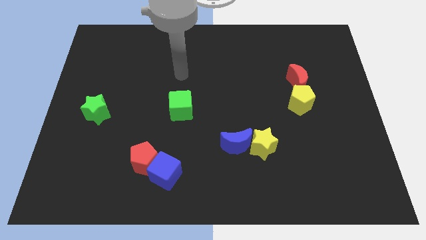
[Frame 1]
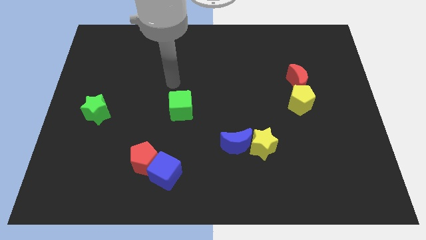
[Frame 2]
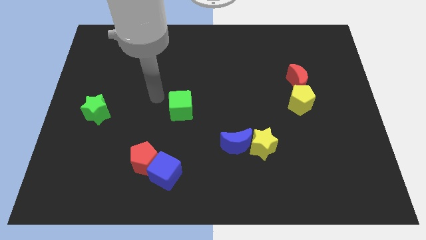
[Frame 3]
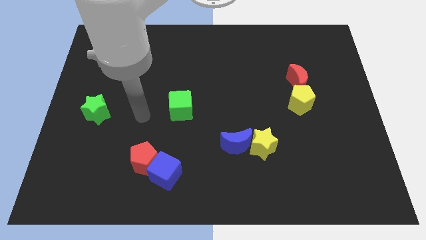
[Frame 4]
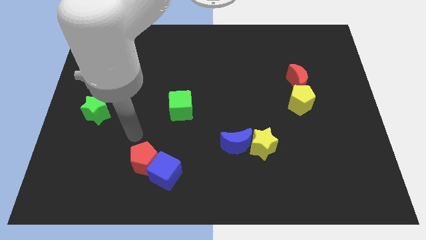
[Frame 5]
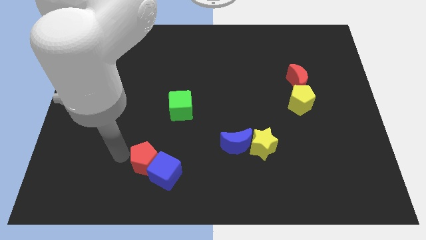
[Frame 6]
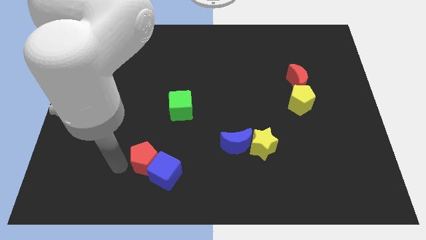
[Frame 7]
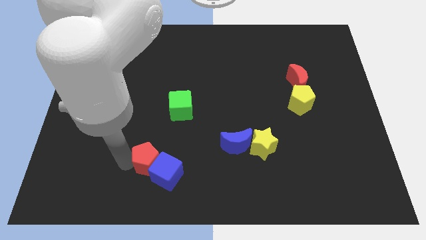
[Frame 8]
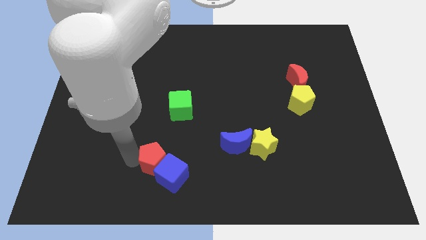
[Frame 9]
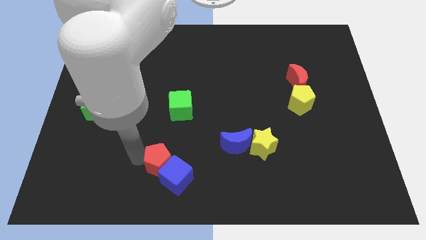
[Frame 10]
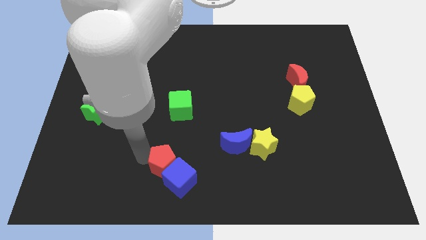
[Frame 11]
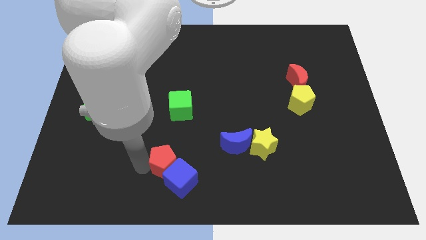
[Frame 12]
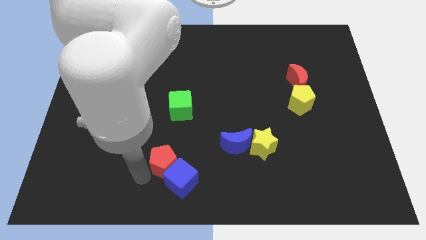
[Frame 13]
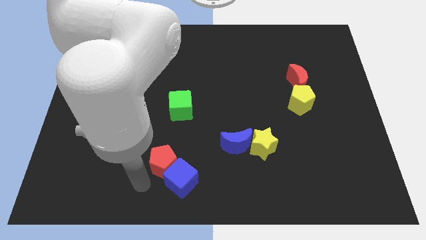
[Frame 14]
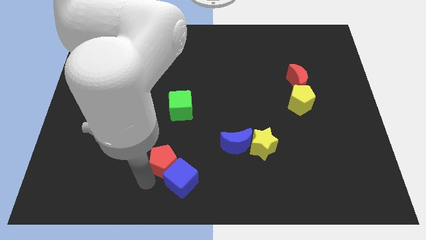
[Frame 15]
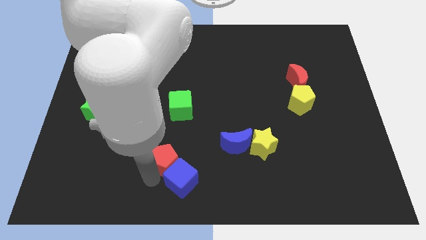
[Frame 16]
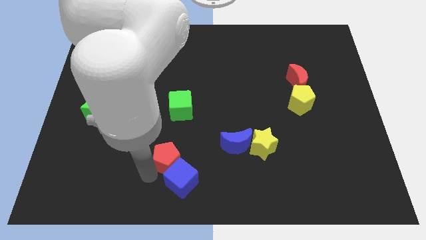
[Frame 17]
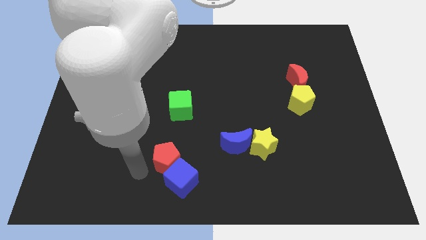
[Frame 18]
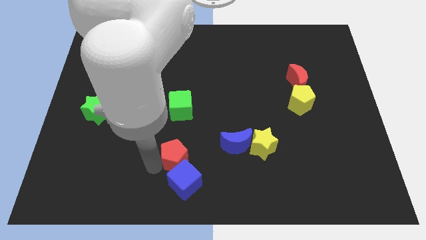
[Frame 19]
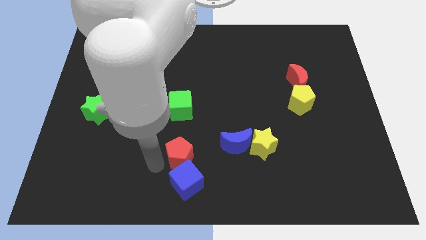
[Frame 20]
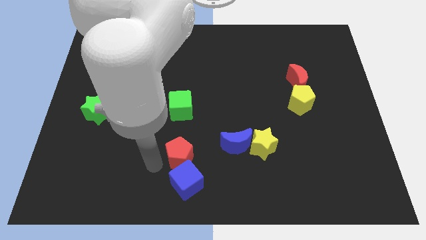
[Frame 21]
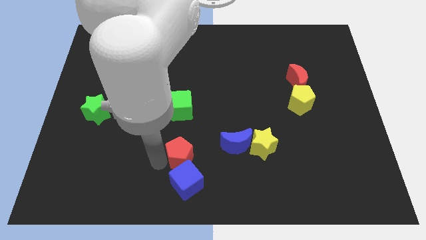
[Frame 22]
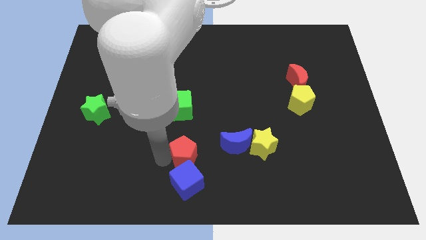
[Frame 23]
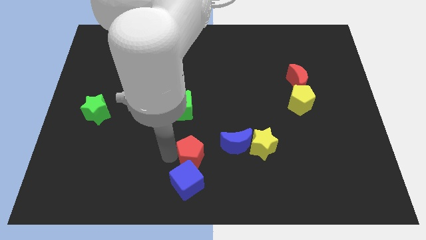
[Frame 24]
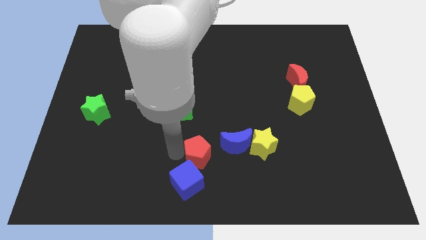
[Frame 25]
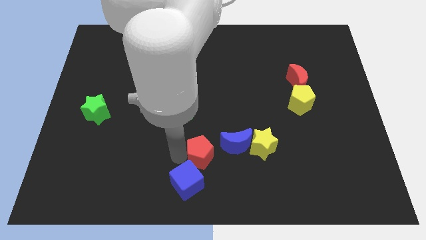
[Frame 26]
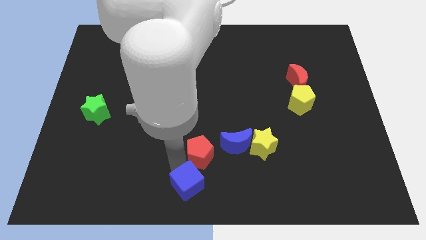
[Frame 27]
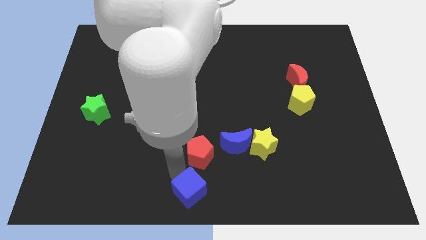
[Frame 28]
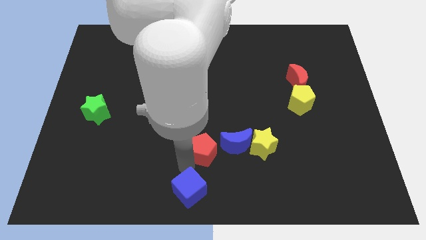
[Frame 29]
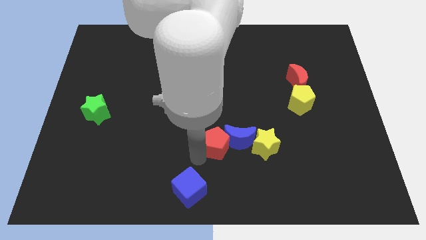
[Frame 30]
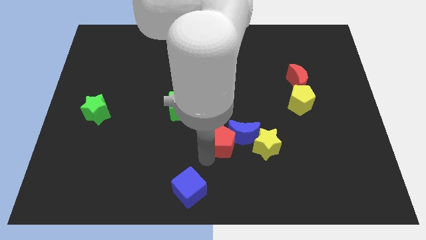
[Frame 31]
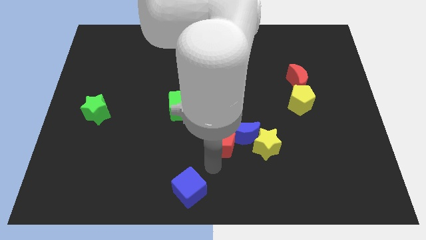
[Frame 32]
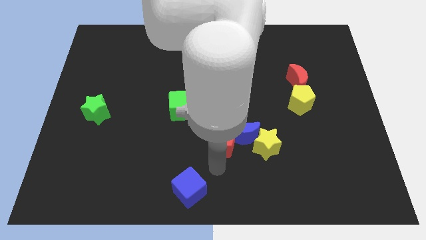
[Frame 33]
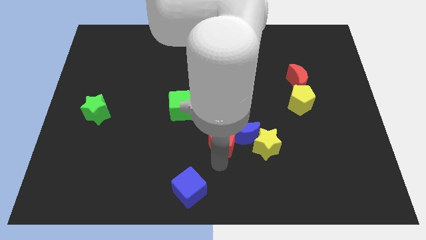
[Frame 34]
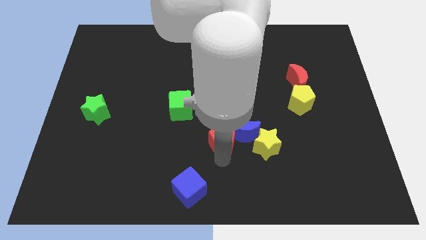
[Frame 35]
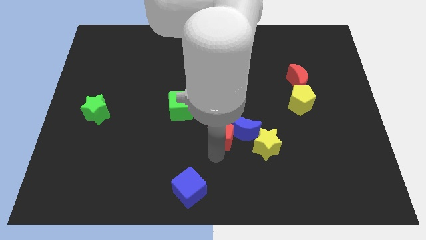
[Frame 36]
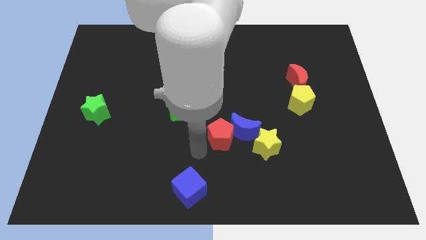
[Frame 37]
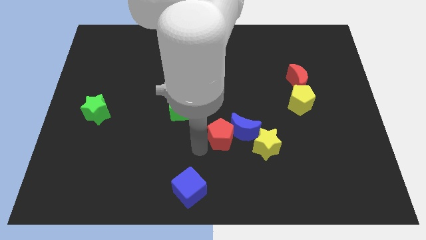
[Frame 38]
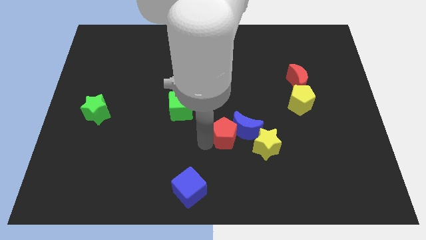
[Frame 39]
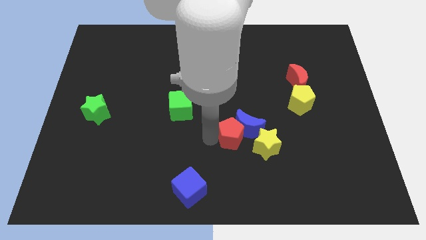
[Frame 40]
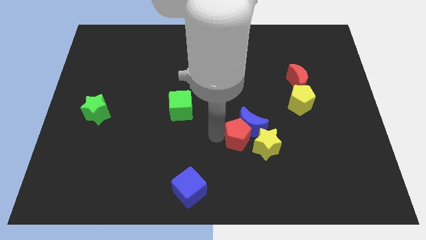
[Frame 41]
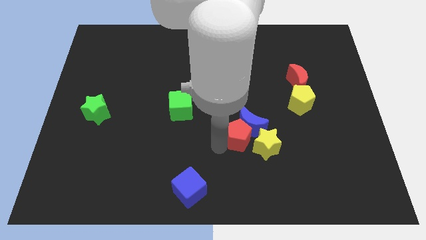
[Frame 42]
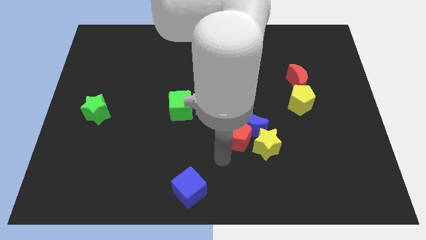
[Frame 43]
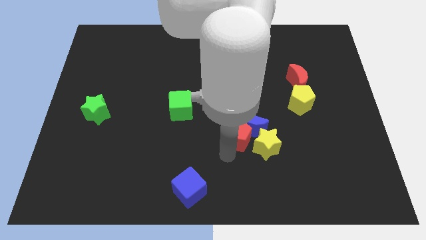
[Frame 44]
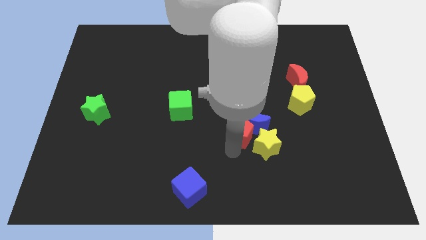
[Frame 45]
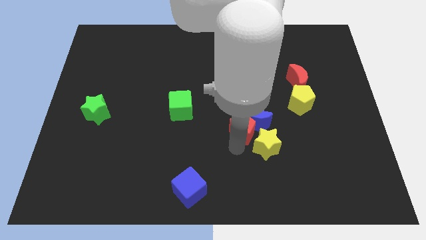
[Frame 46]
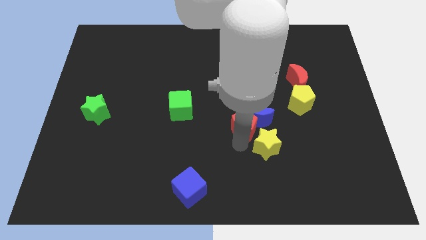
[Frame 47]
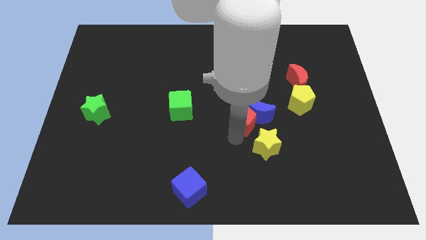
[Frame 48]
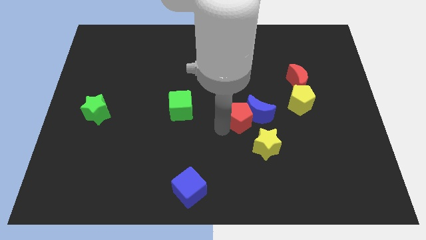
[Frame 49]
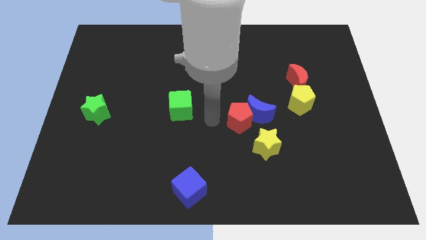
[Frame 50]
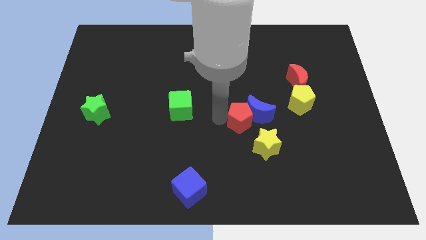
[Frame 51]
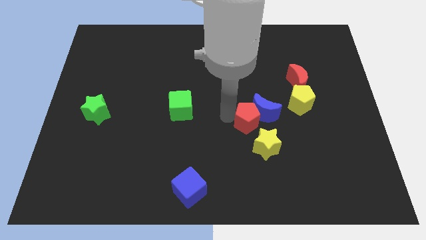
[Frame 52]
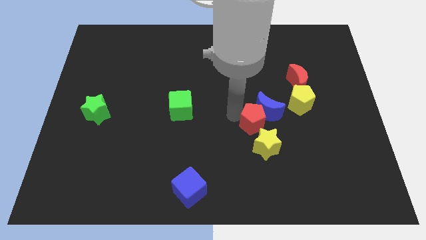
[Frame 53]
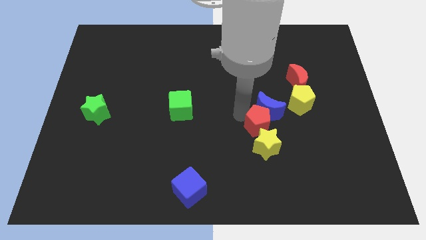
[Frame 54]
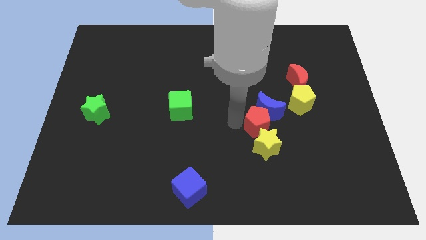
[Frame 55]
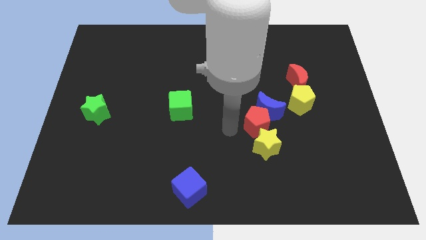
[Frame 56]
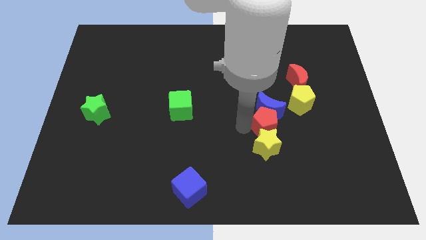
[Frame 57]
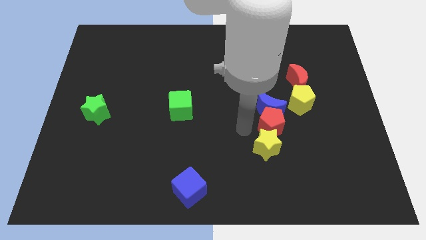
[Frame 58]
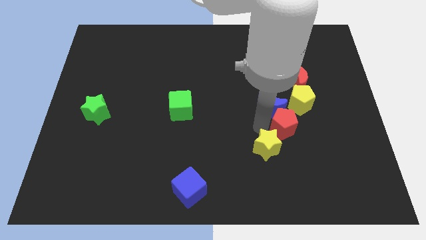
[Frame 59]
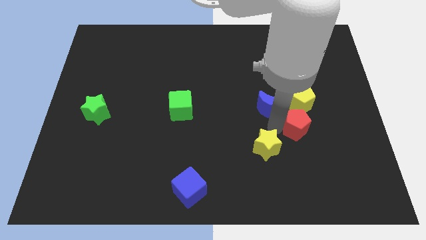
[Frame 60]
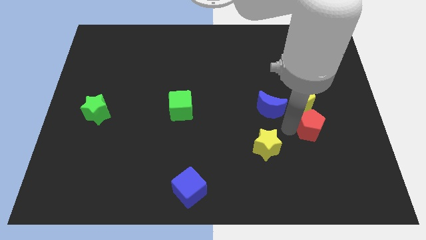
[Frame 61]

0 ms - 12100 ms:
put the red pentagon to the bottom right side of the yellow pentagon

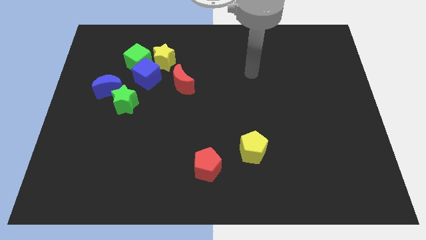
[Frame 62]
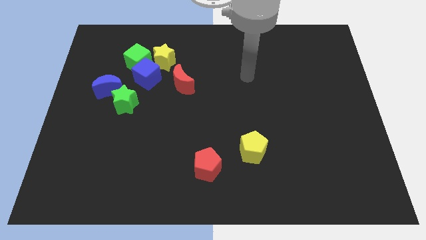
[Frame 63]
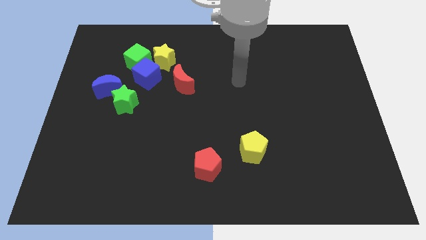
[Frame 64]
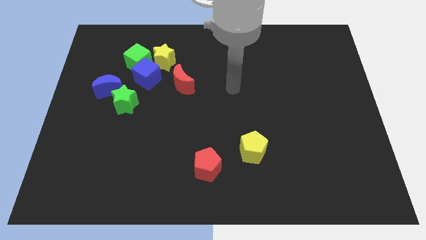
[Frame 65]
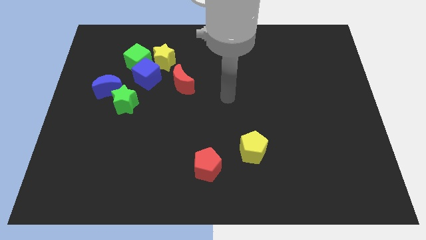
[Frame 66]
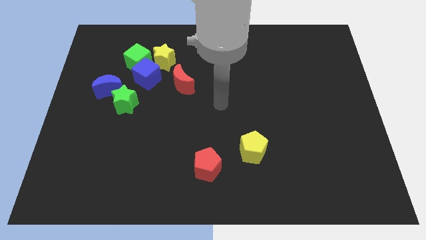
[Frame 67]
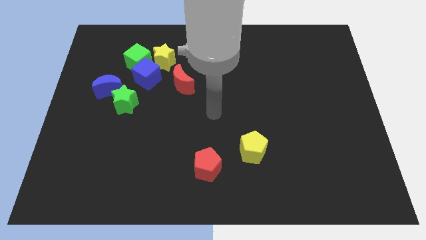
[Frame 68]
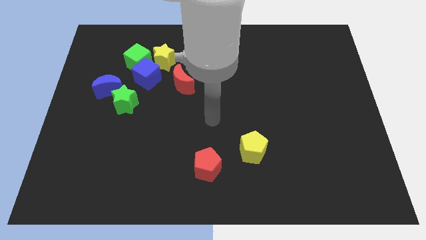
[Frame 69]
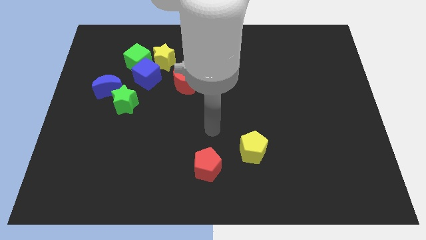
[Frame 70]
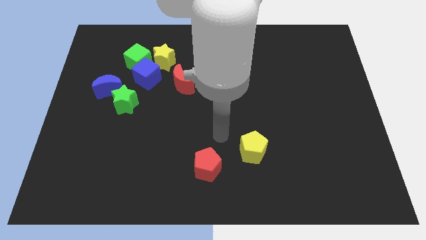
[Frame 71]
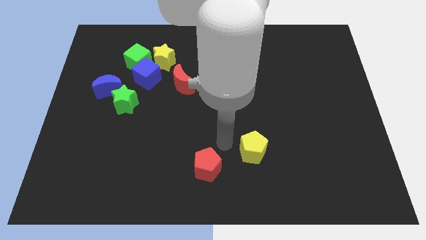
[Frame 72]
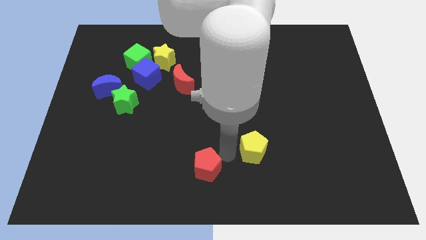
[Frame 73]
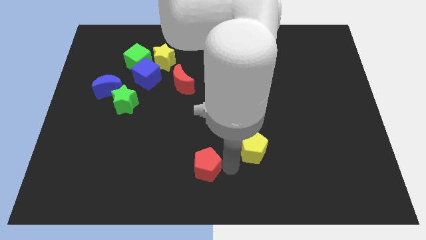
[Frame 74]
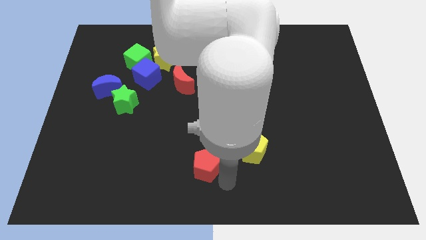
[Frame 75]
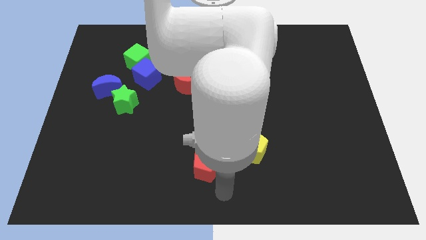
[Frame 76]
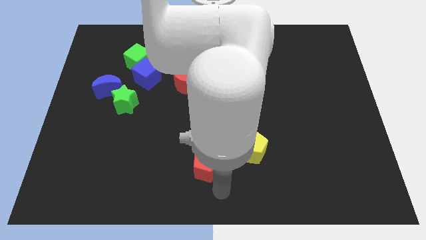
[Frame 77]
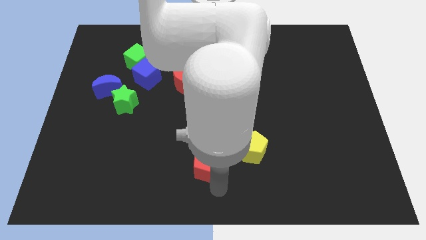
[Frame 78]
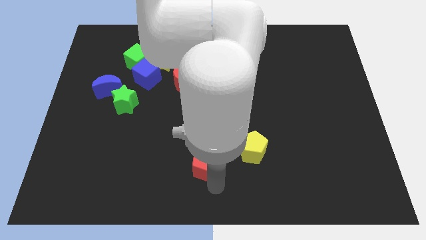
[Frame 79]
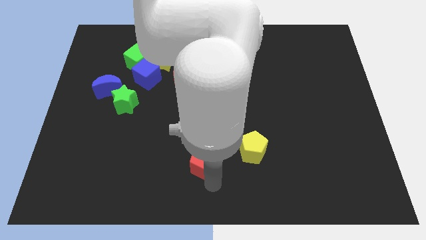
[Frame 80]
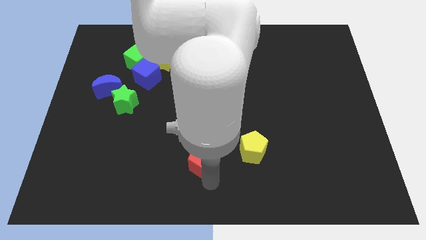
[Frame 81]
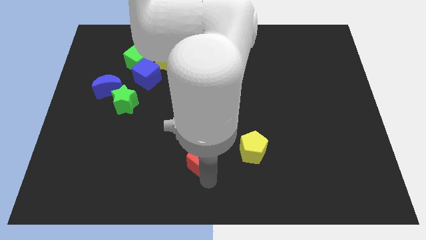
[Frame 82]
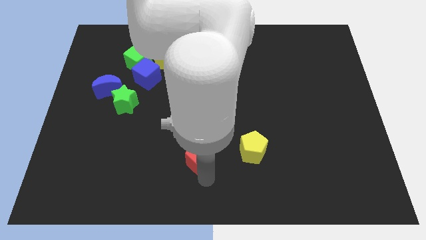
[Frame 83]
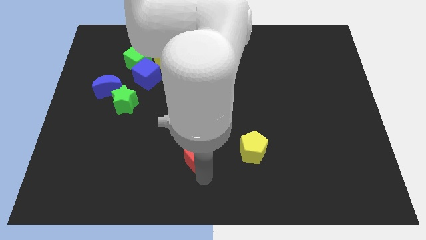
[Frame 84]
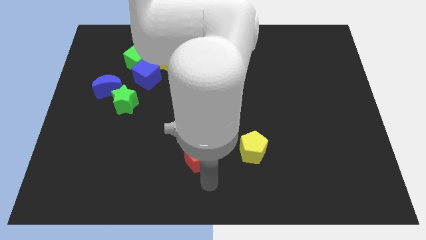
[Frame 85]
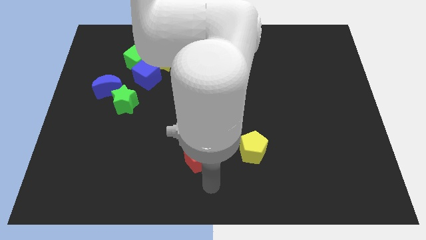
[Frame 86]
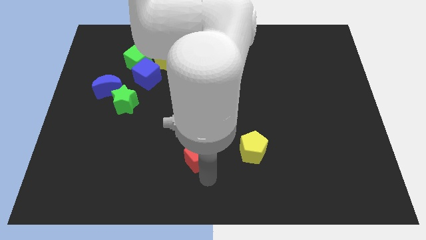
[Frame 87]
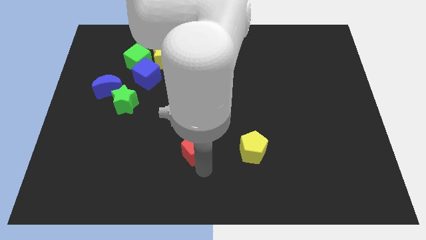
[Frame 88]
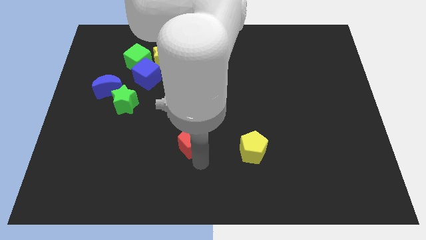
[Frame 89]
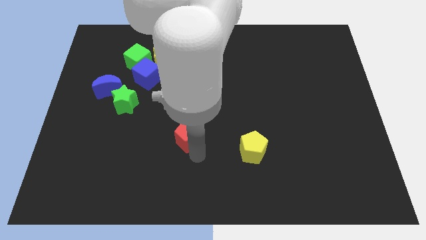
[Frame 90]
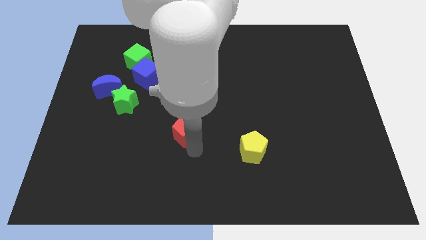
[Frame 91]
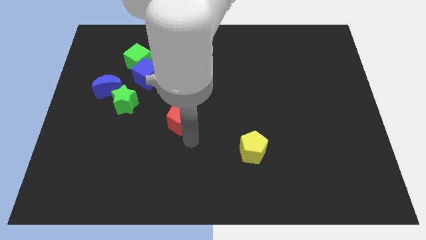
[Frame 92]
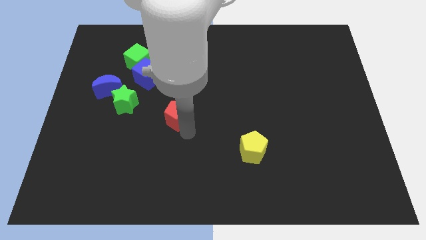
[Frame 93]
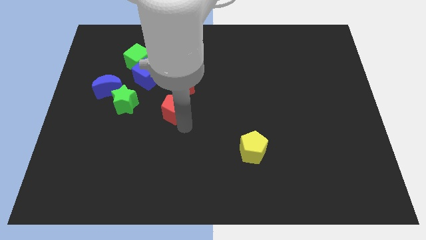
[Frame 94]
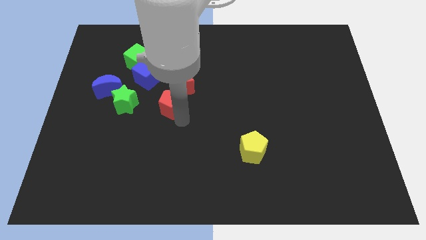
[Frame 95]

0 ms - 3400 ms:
move the red pentagon to the bottom left of the red moon
